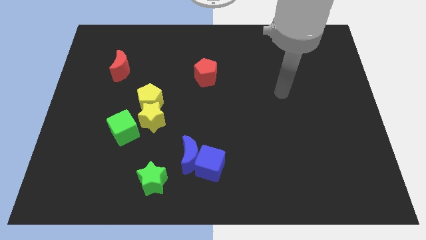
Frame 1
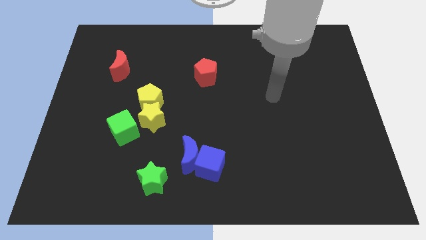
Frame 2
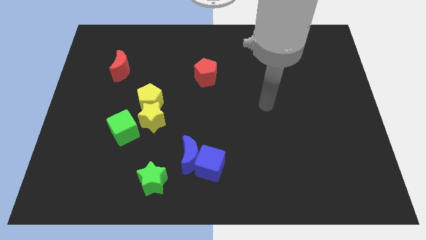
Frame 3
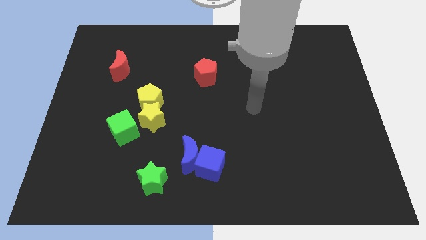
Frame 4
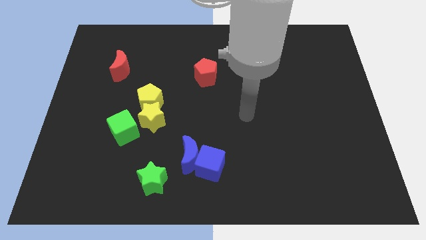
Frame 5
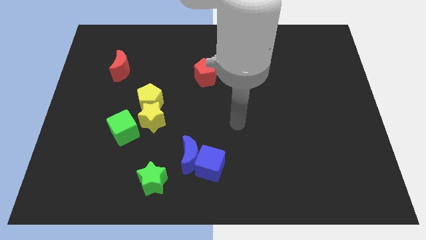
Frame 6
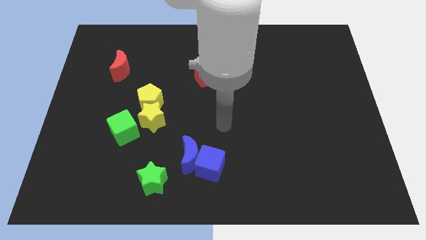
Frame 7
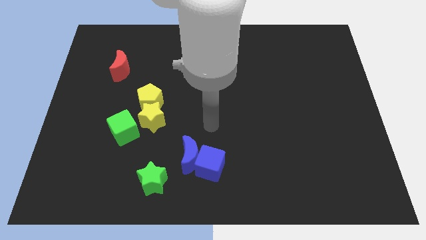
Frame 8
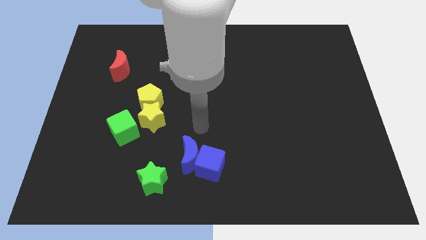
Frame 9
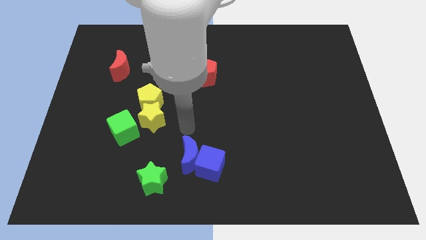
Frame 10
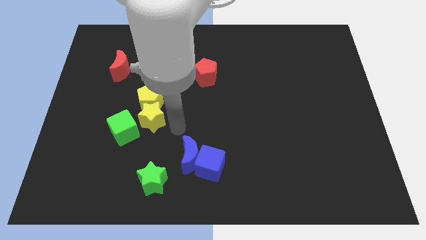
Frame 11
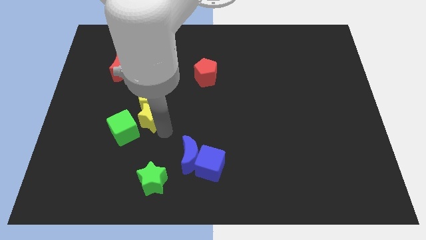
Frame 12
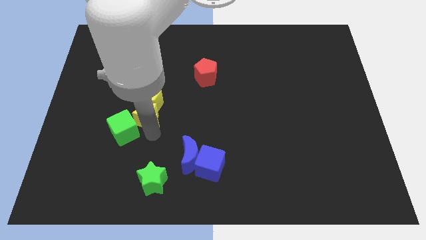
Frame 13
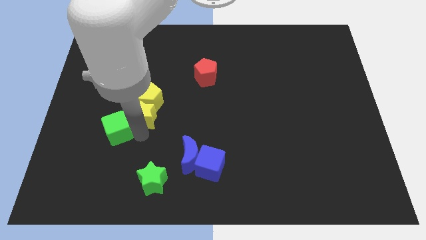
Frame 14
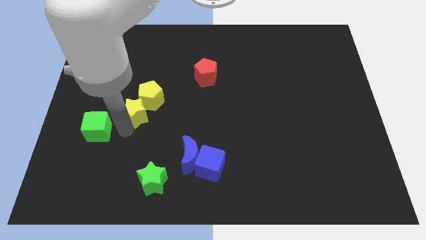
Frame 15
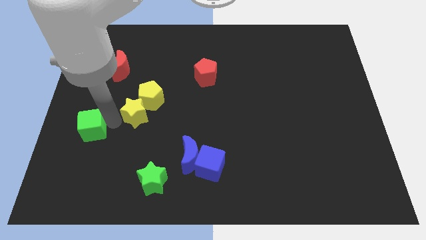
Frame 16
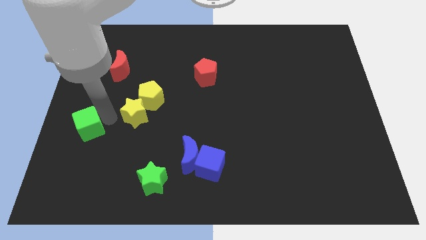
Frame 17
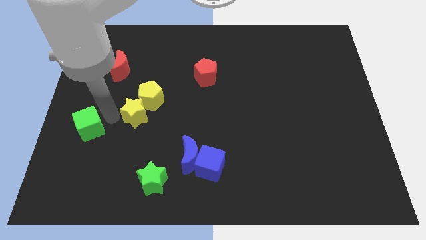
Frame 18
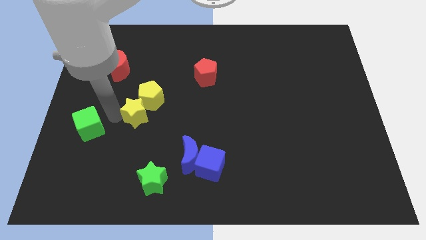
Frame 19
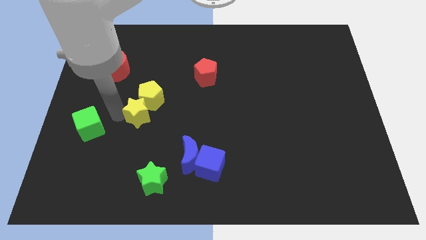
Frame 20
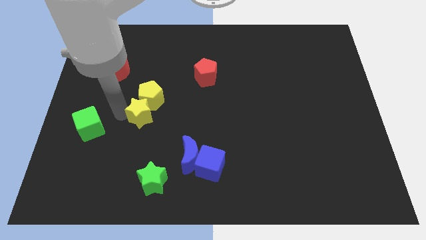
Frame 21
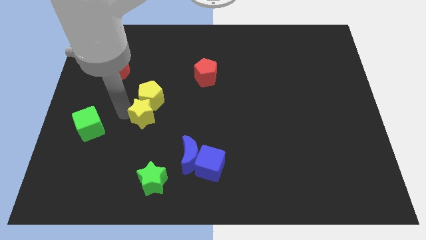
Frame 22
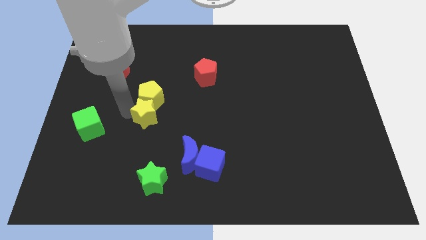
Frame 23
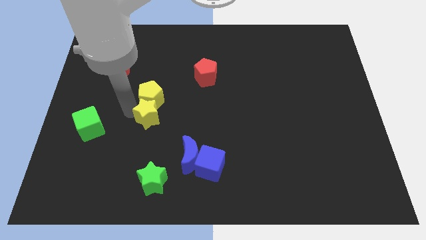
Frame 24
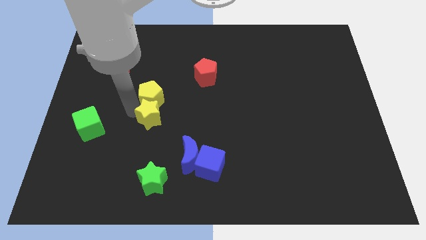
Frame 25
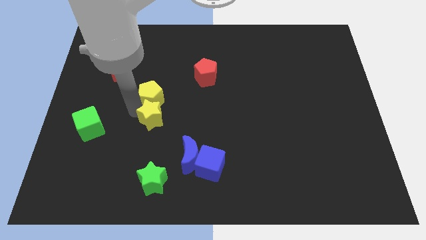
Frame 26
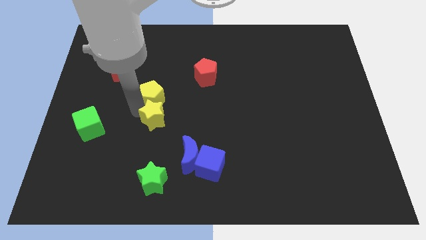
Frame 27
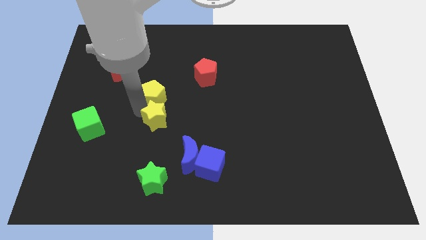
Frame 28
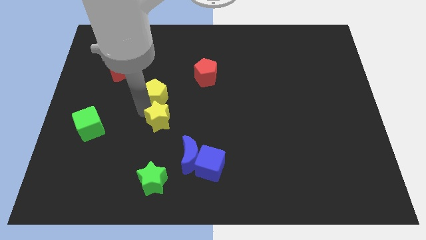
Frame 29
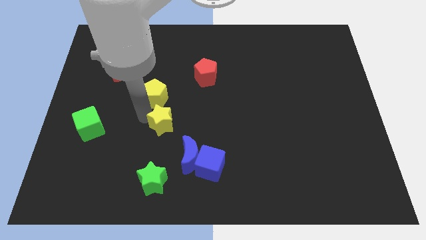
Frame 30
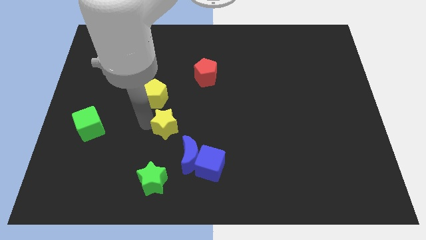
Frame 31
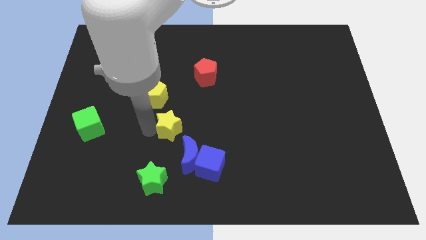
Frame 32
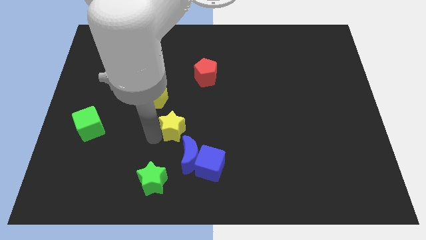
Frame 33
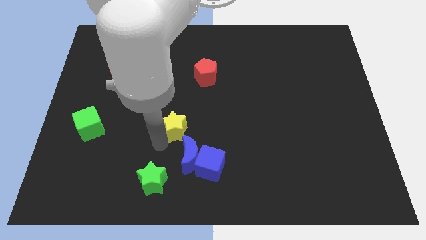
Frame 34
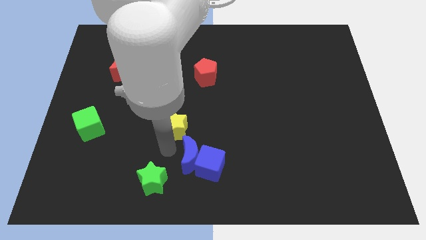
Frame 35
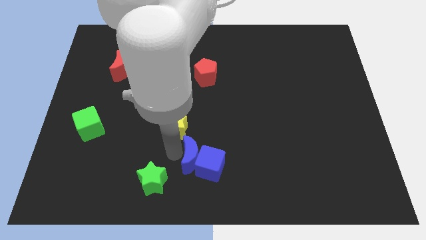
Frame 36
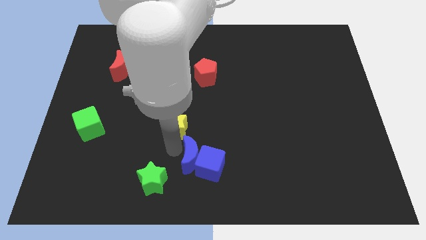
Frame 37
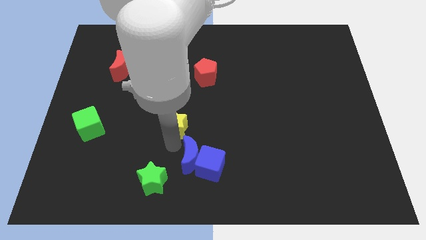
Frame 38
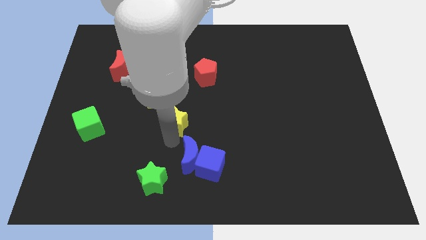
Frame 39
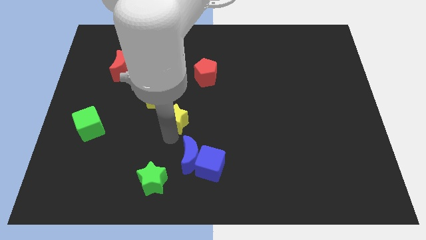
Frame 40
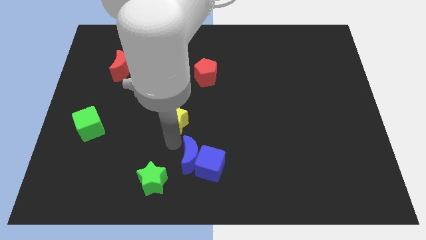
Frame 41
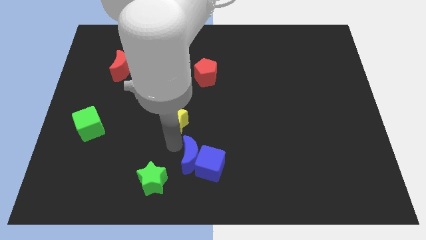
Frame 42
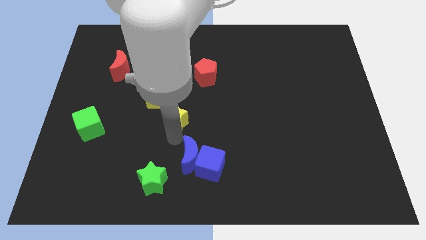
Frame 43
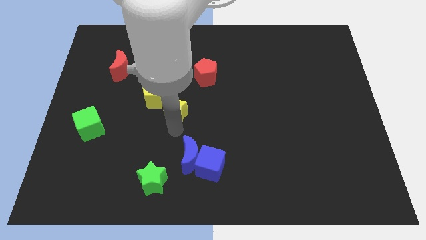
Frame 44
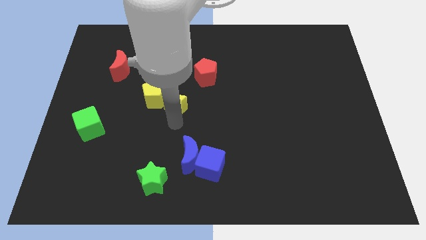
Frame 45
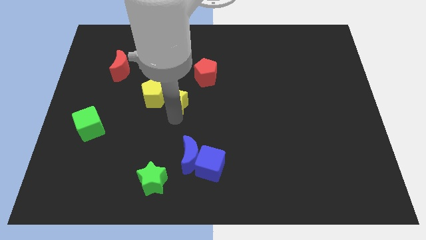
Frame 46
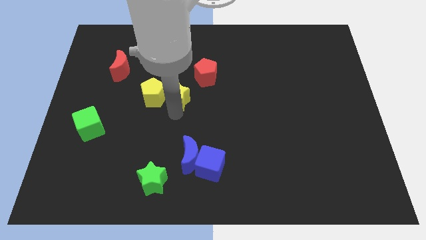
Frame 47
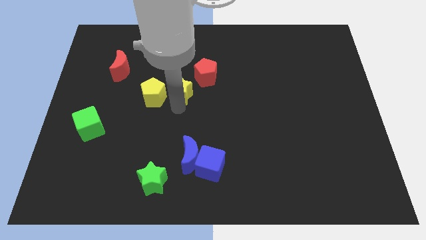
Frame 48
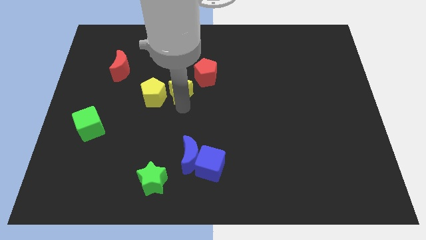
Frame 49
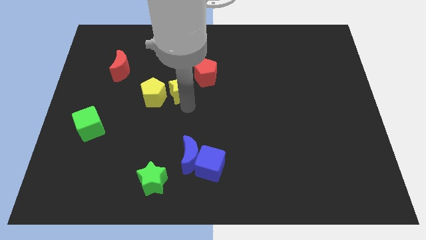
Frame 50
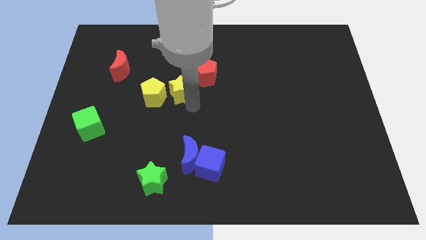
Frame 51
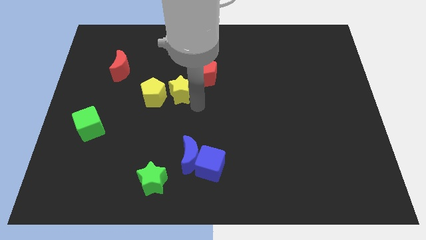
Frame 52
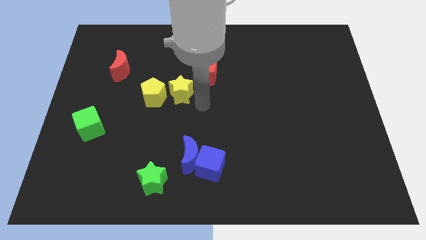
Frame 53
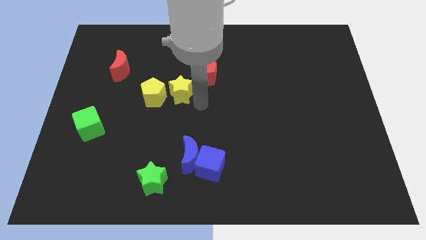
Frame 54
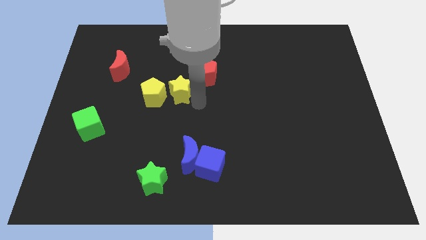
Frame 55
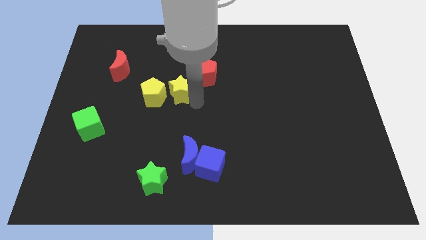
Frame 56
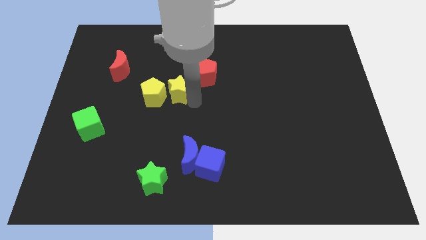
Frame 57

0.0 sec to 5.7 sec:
push the yellow star slightly up

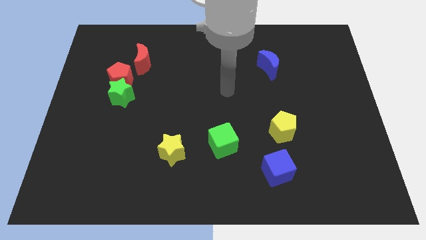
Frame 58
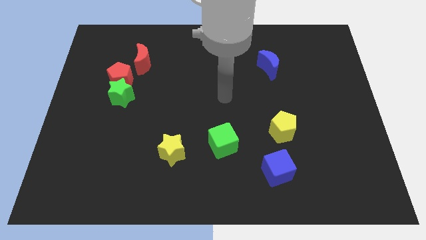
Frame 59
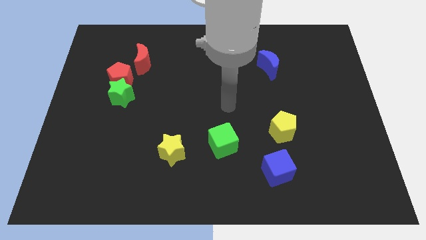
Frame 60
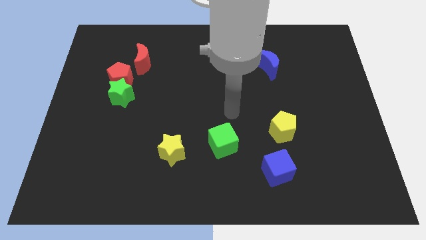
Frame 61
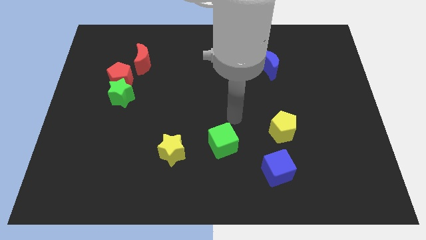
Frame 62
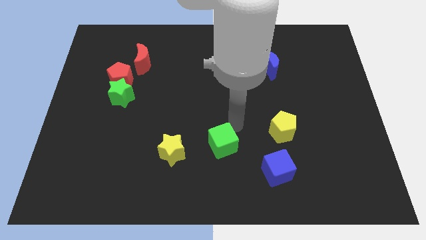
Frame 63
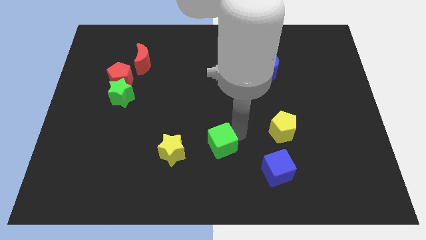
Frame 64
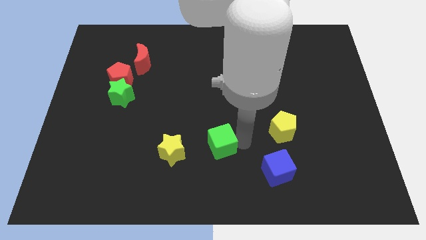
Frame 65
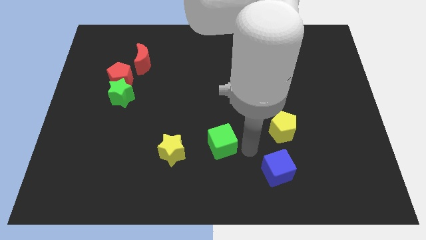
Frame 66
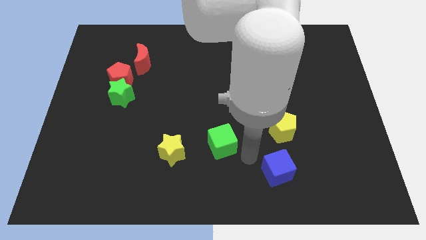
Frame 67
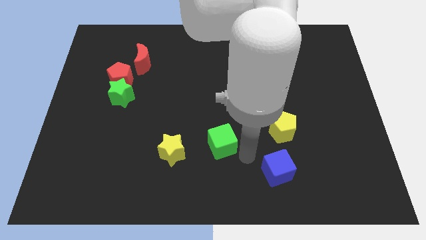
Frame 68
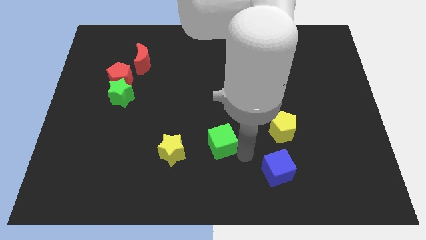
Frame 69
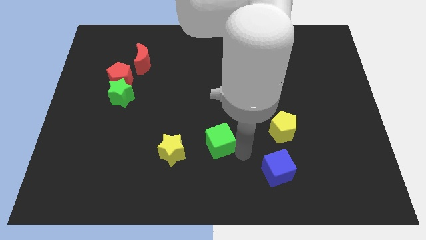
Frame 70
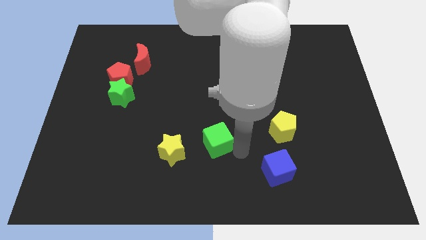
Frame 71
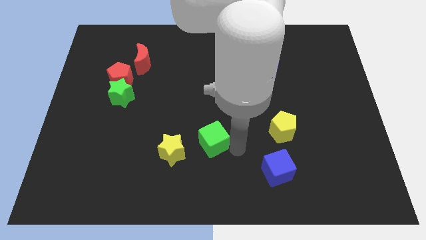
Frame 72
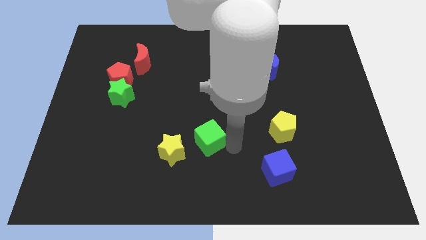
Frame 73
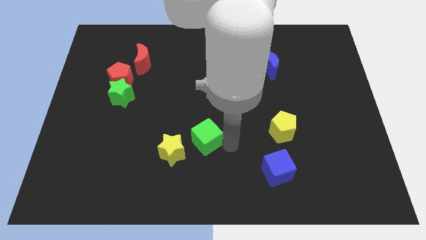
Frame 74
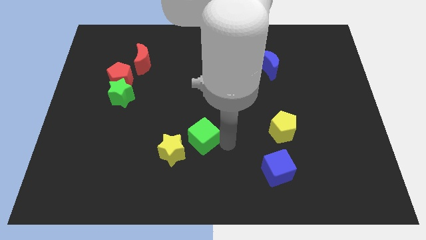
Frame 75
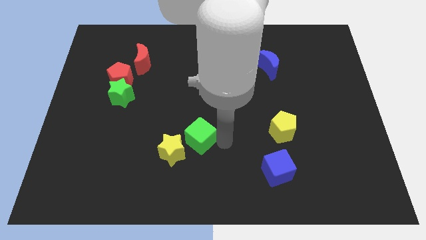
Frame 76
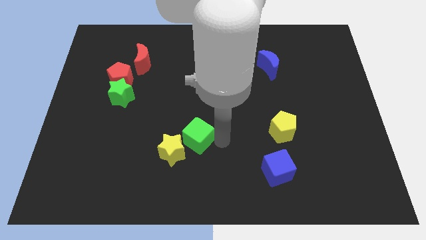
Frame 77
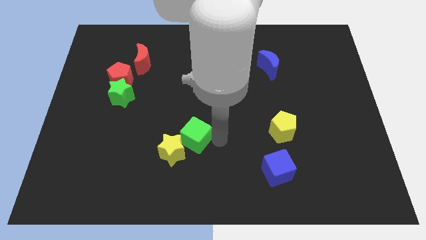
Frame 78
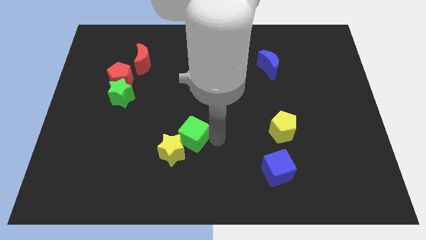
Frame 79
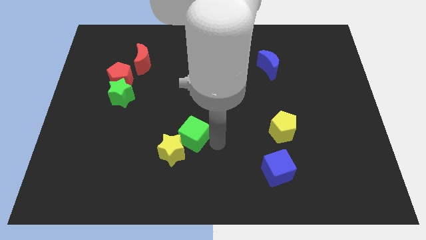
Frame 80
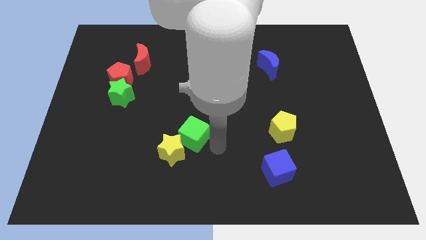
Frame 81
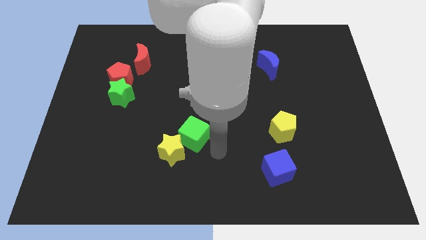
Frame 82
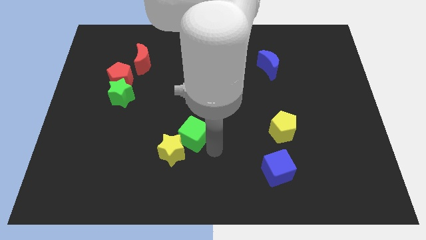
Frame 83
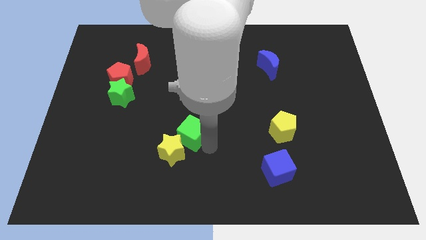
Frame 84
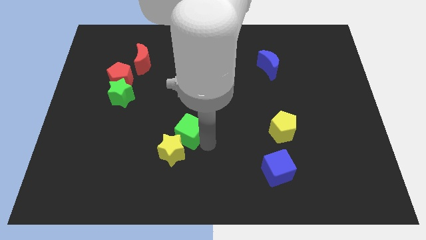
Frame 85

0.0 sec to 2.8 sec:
slide the green cube to the left slightly
